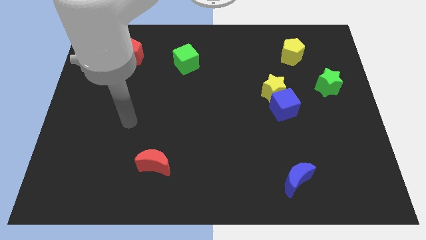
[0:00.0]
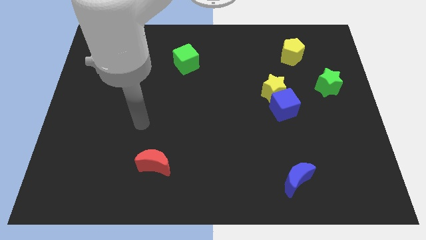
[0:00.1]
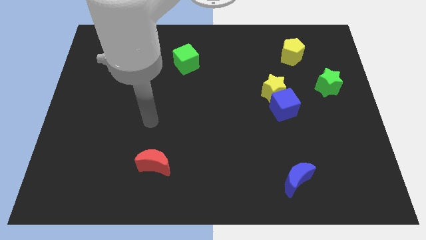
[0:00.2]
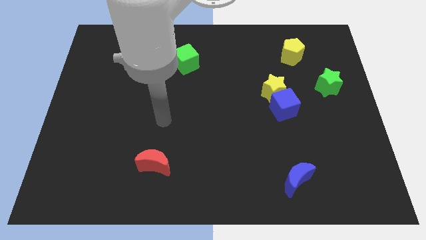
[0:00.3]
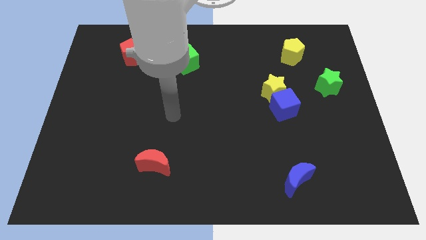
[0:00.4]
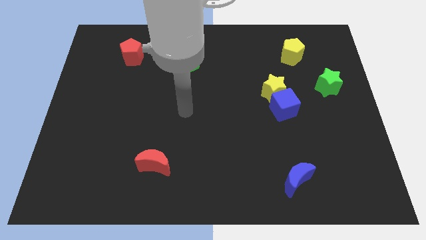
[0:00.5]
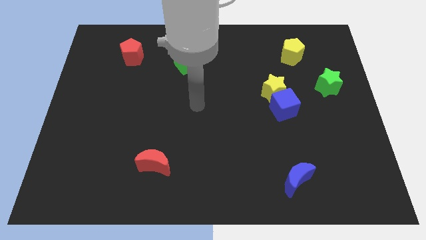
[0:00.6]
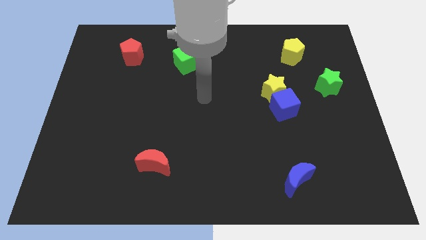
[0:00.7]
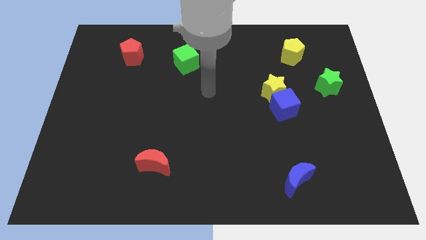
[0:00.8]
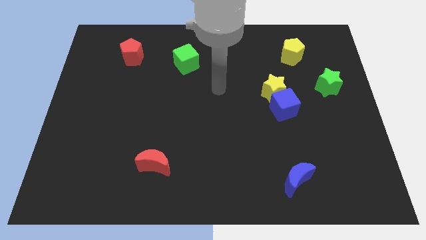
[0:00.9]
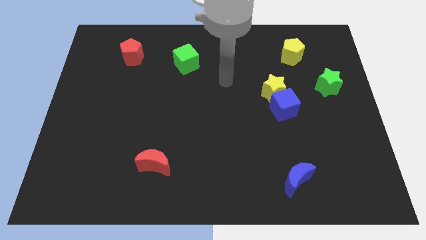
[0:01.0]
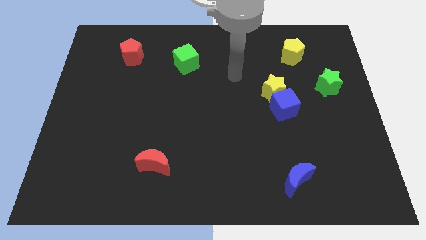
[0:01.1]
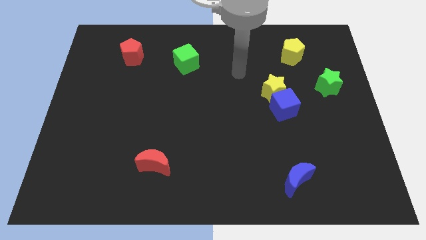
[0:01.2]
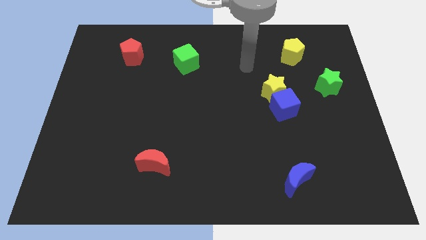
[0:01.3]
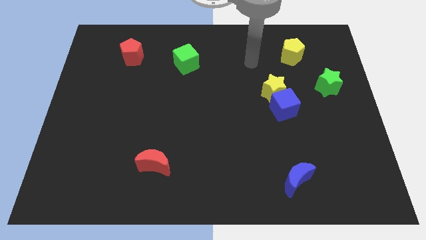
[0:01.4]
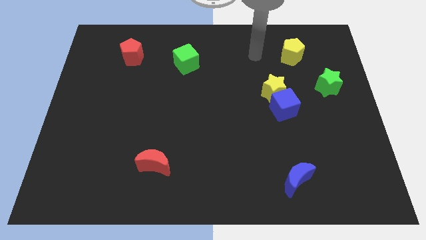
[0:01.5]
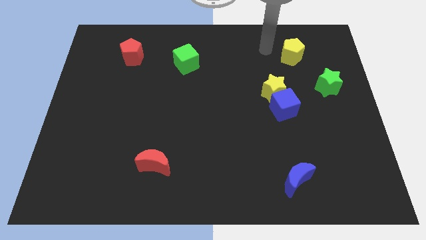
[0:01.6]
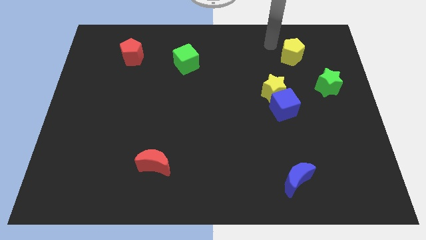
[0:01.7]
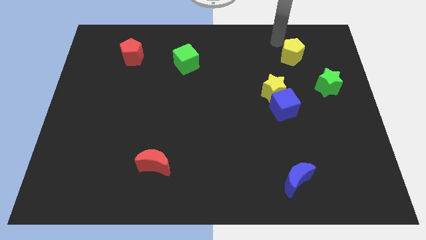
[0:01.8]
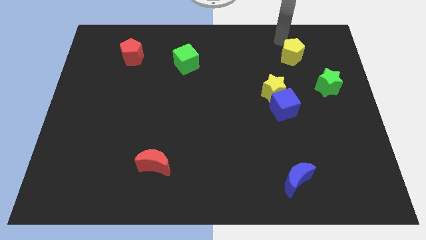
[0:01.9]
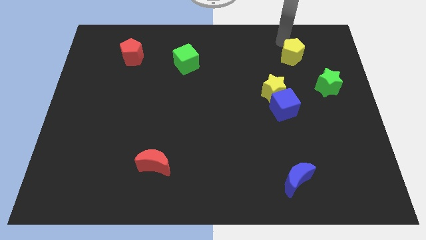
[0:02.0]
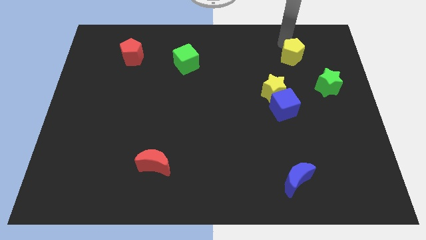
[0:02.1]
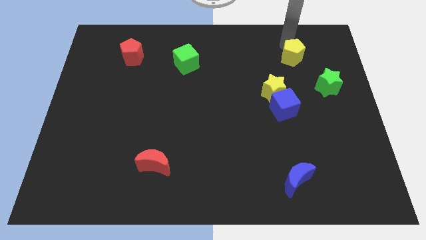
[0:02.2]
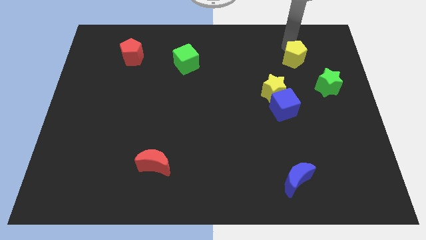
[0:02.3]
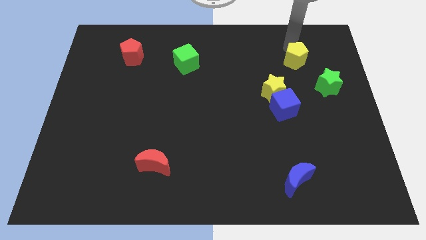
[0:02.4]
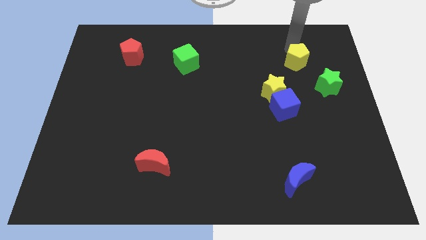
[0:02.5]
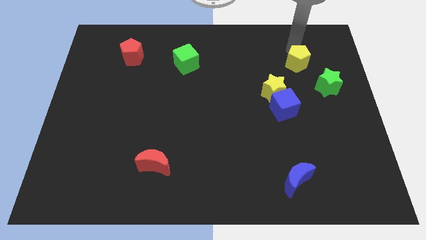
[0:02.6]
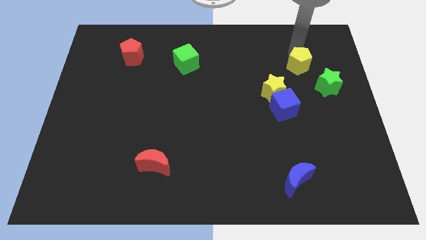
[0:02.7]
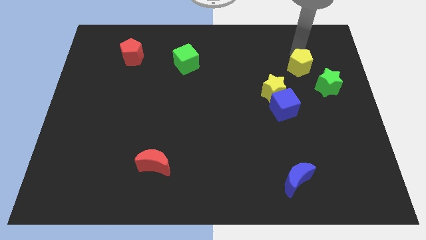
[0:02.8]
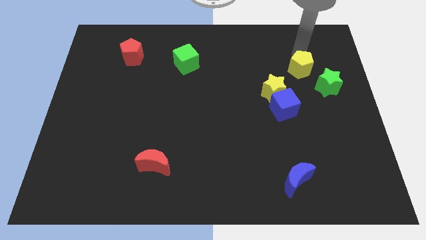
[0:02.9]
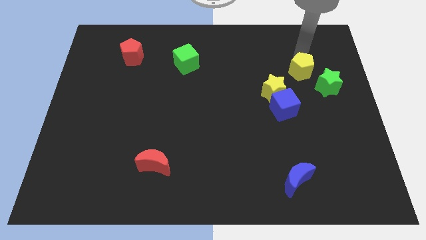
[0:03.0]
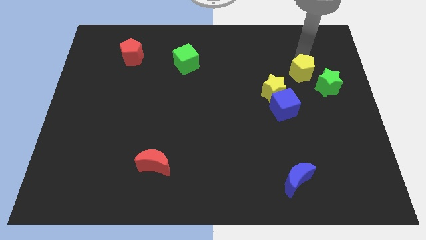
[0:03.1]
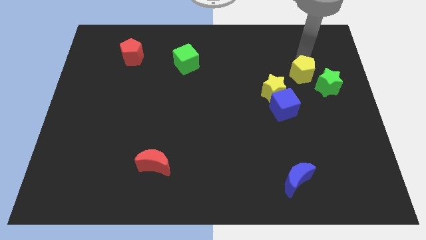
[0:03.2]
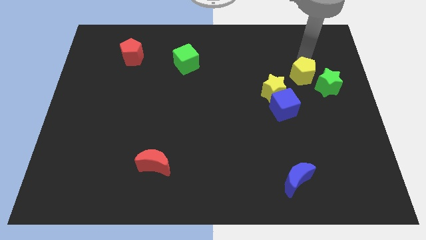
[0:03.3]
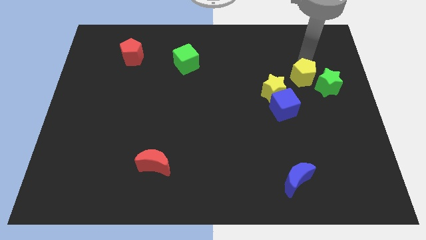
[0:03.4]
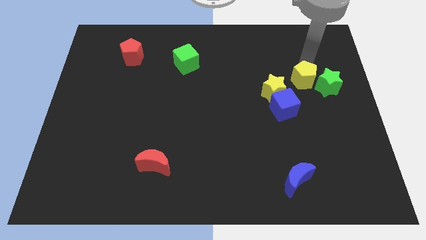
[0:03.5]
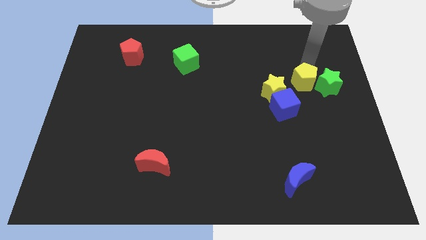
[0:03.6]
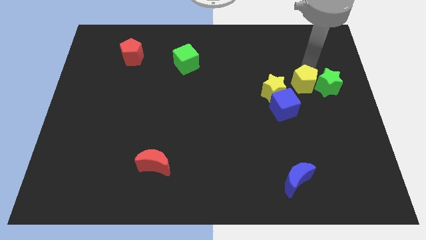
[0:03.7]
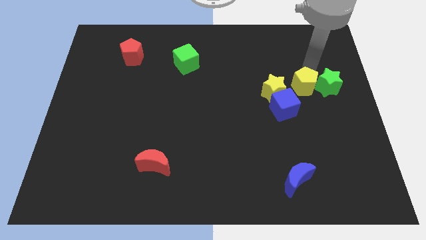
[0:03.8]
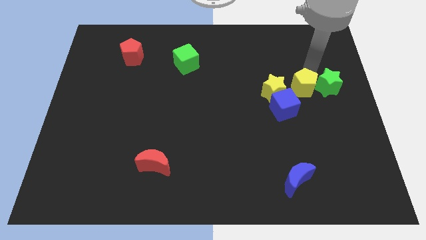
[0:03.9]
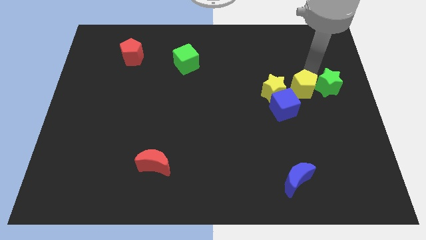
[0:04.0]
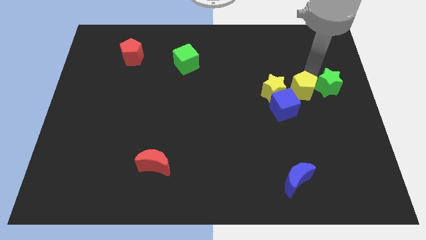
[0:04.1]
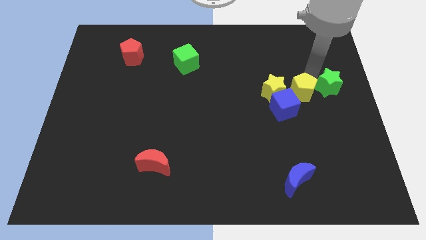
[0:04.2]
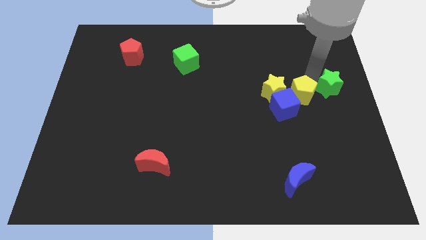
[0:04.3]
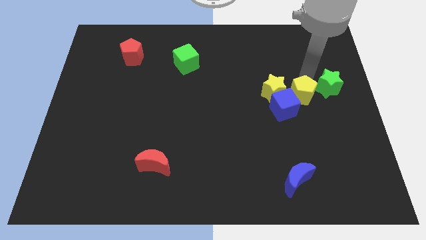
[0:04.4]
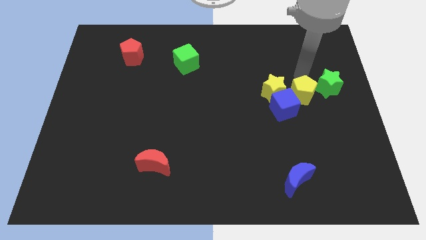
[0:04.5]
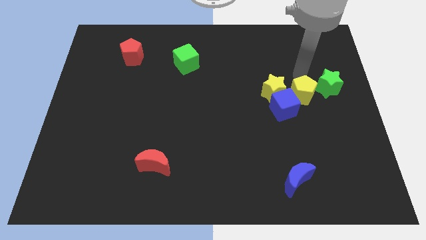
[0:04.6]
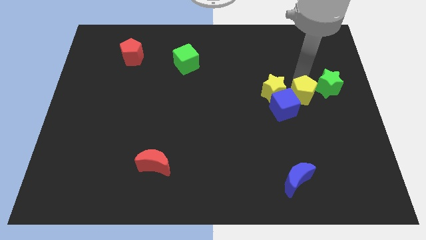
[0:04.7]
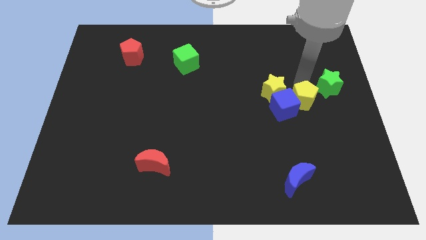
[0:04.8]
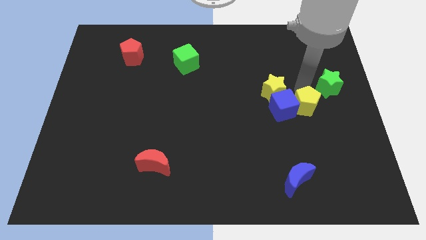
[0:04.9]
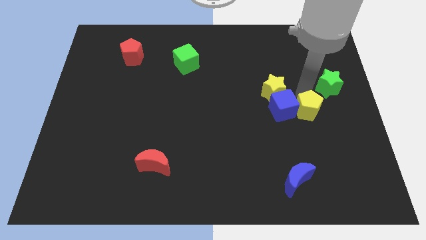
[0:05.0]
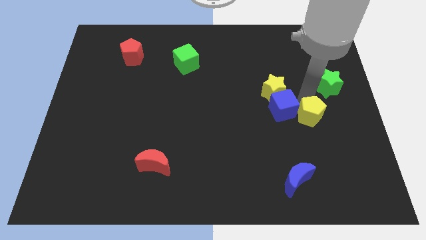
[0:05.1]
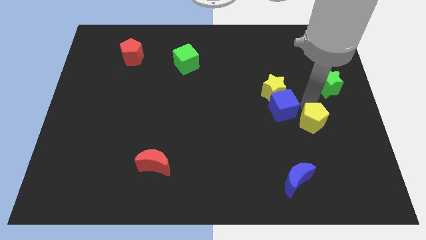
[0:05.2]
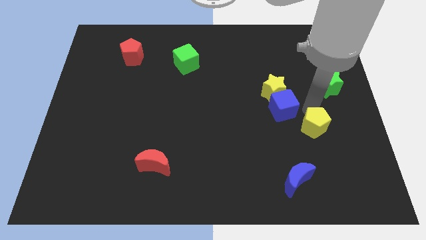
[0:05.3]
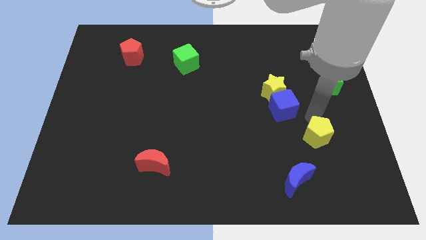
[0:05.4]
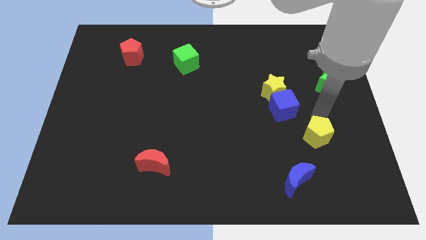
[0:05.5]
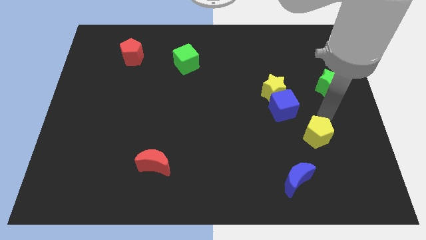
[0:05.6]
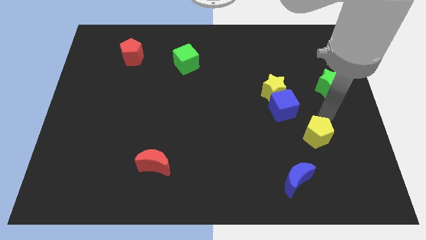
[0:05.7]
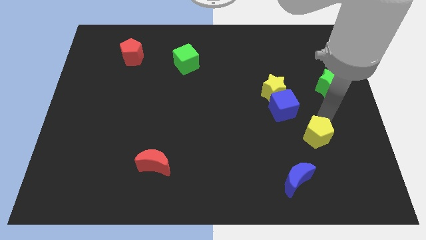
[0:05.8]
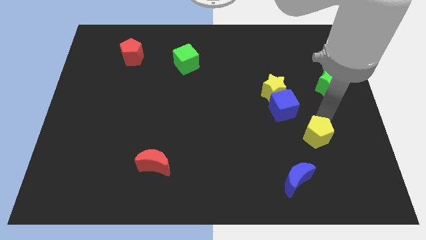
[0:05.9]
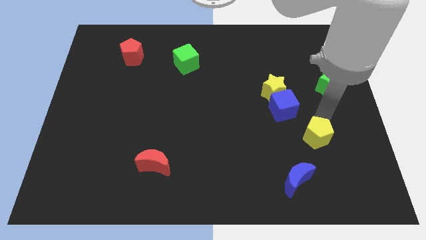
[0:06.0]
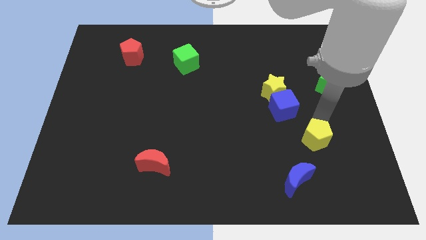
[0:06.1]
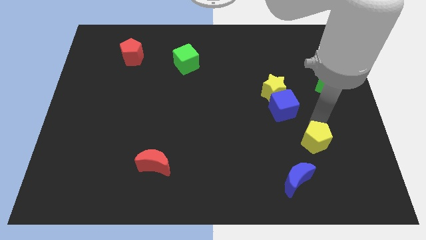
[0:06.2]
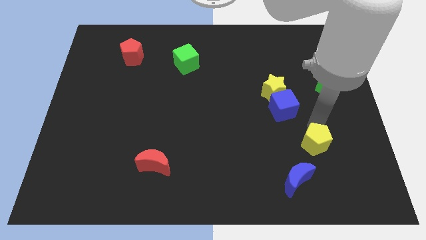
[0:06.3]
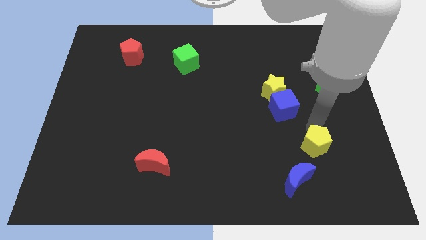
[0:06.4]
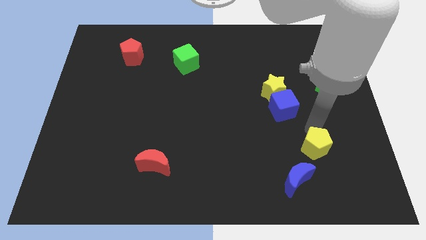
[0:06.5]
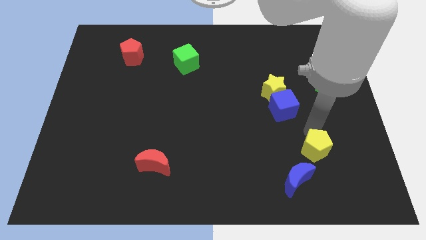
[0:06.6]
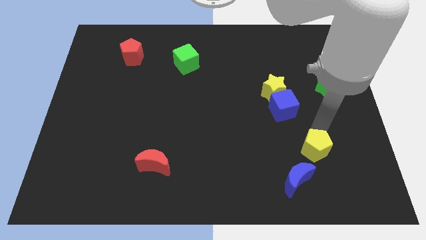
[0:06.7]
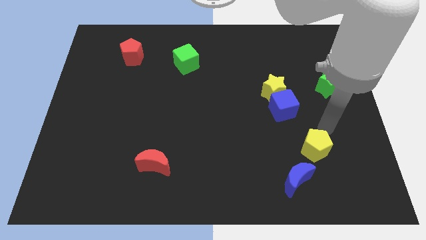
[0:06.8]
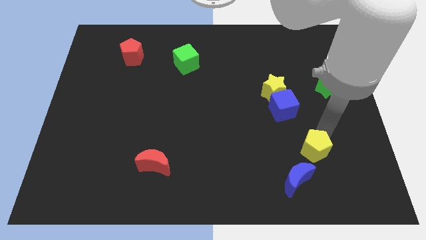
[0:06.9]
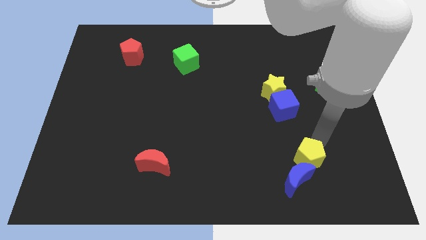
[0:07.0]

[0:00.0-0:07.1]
push the yellow pentagon towards the blue moon
